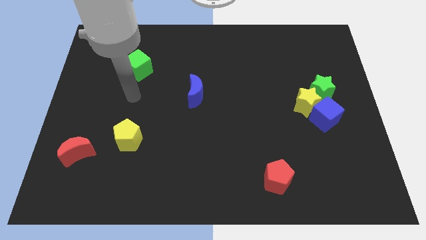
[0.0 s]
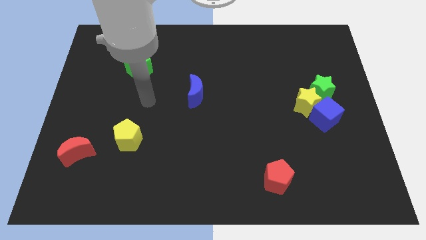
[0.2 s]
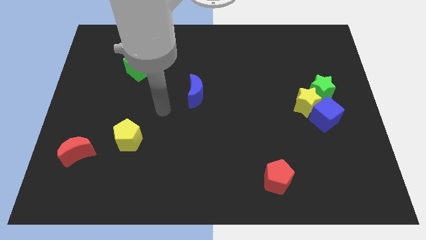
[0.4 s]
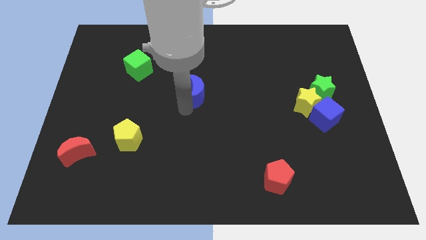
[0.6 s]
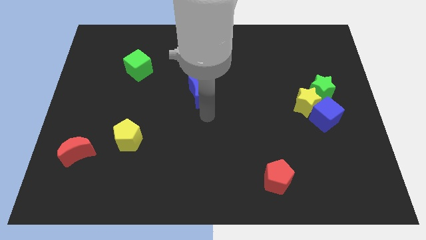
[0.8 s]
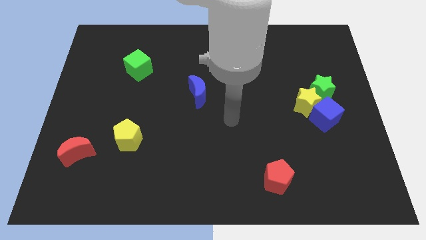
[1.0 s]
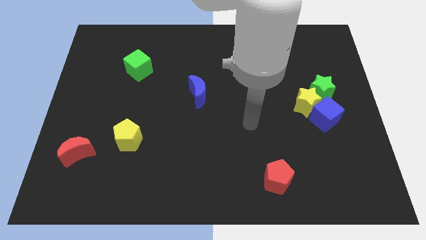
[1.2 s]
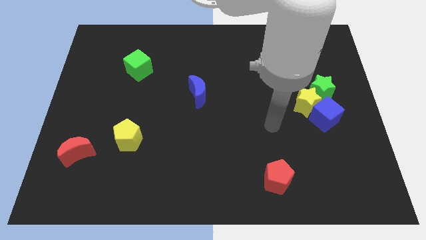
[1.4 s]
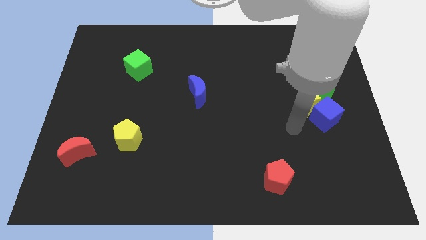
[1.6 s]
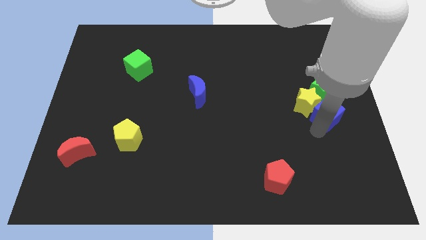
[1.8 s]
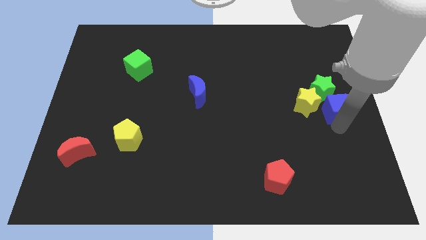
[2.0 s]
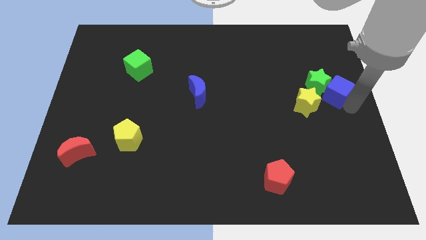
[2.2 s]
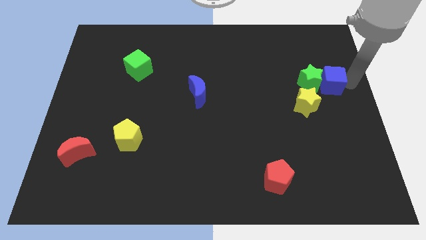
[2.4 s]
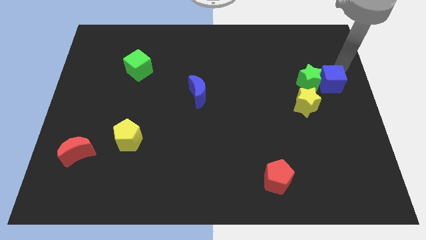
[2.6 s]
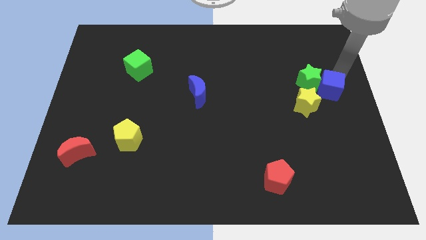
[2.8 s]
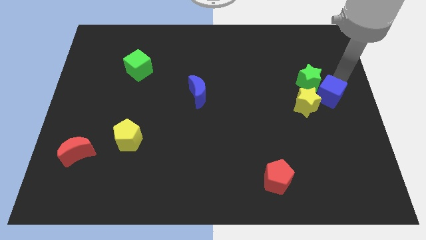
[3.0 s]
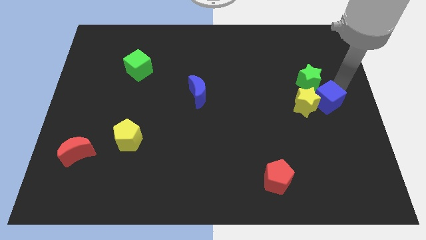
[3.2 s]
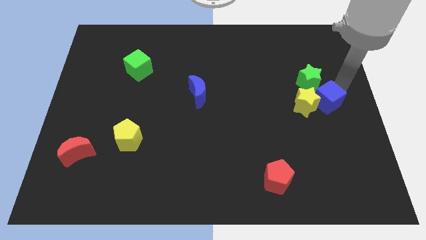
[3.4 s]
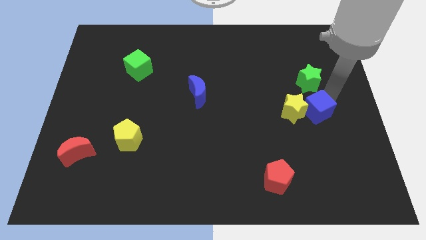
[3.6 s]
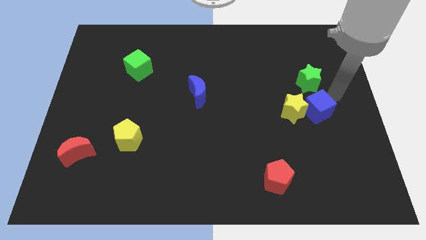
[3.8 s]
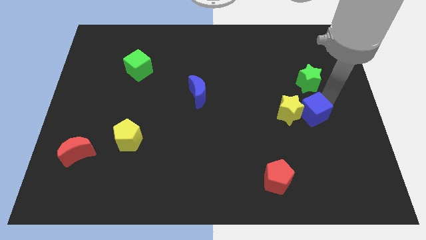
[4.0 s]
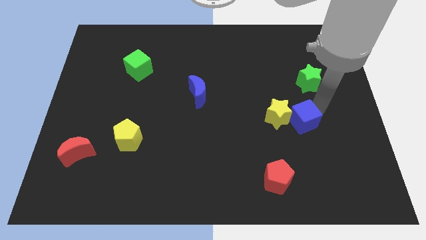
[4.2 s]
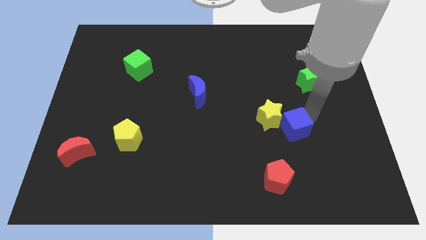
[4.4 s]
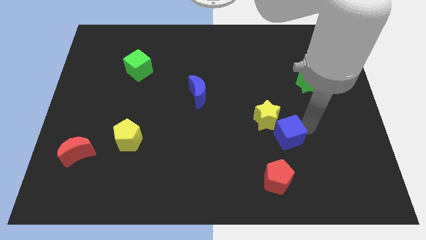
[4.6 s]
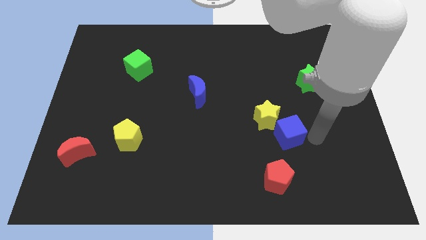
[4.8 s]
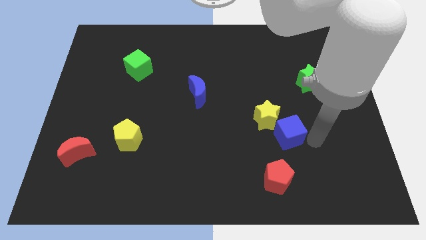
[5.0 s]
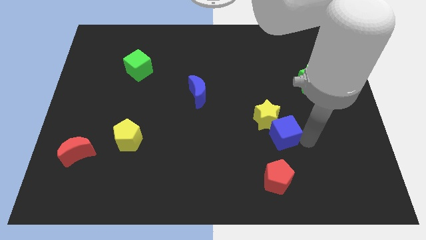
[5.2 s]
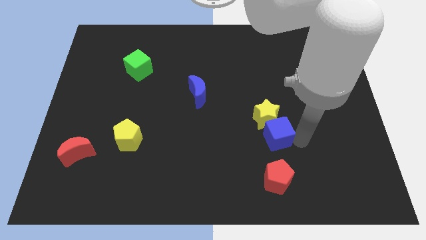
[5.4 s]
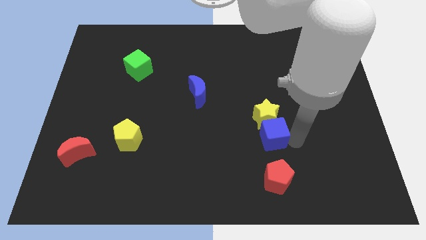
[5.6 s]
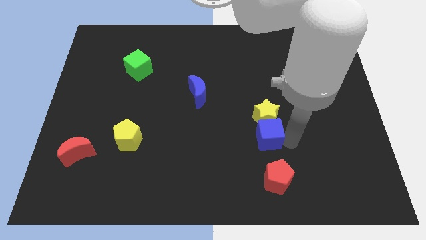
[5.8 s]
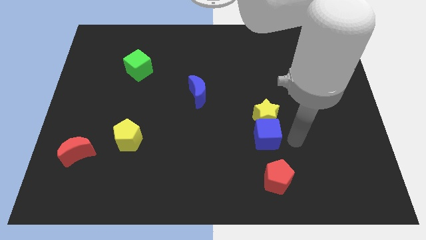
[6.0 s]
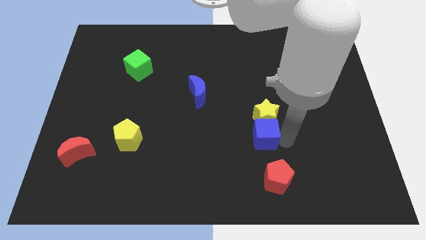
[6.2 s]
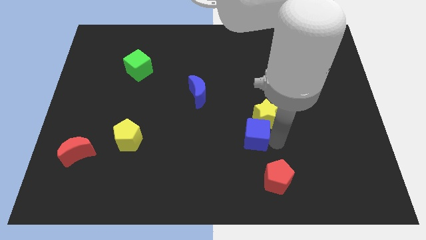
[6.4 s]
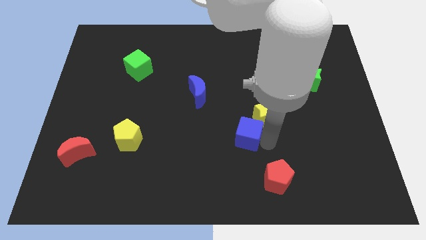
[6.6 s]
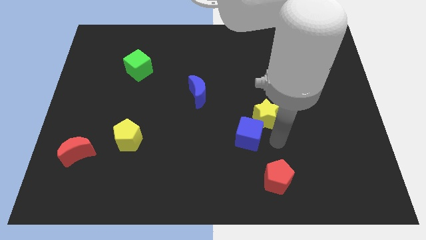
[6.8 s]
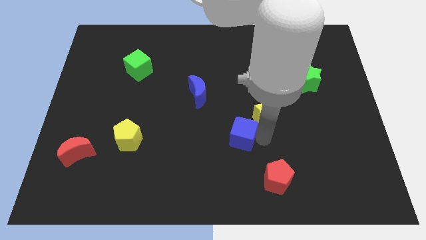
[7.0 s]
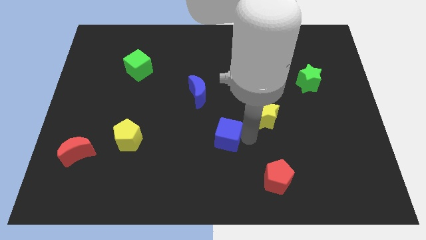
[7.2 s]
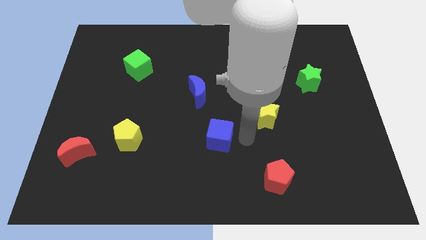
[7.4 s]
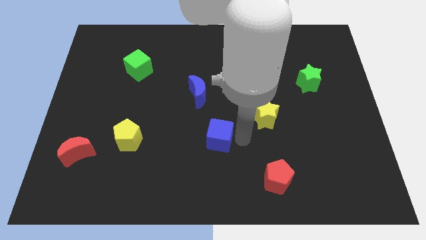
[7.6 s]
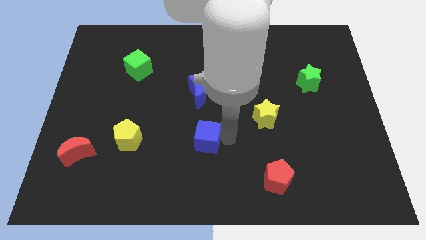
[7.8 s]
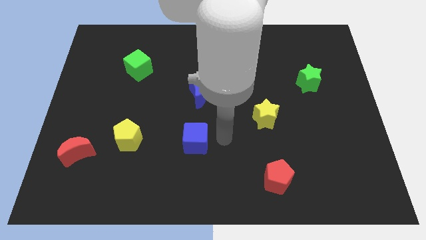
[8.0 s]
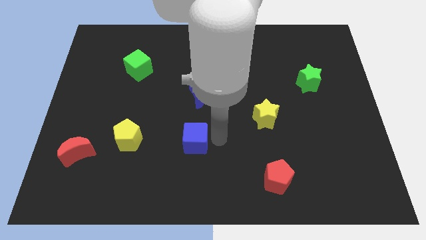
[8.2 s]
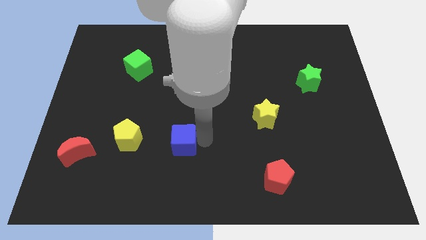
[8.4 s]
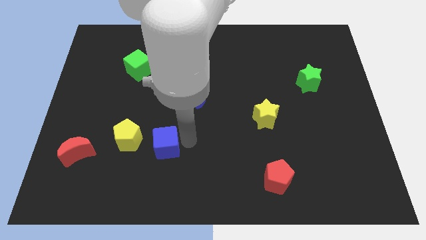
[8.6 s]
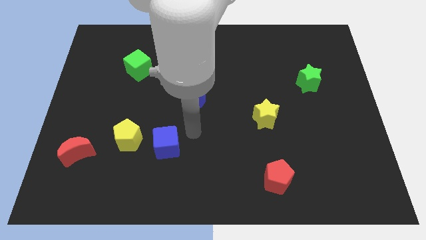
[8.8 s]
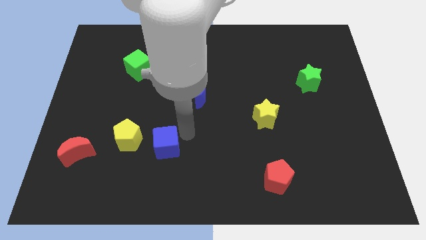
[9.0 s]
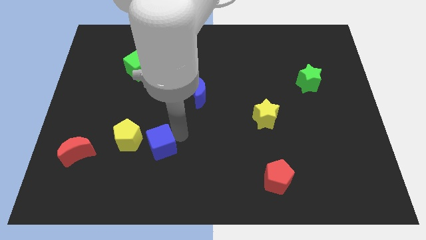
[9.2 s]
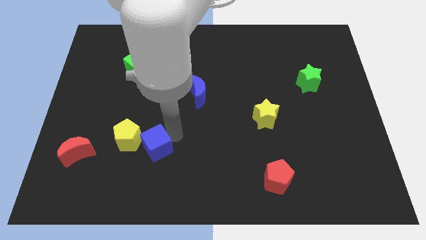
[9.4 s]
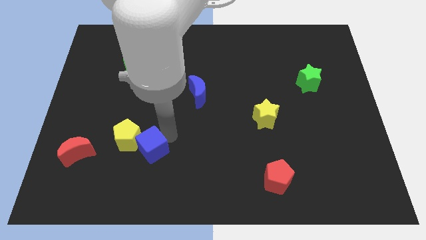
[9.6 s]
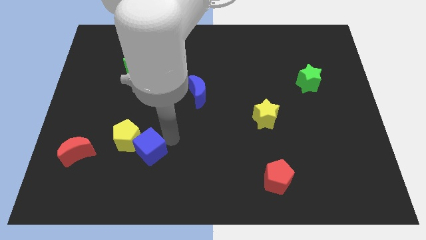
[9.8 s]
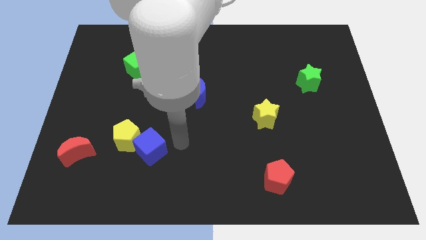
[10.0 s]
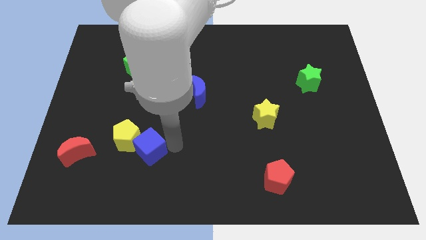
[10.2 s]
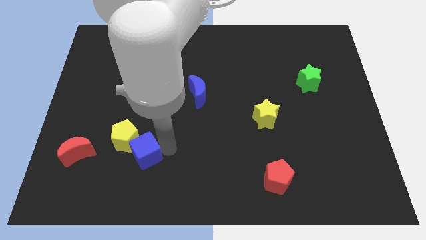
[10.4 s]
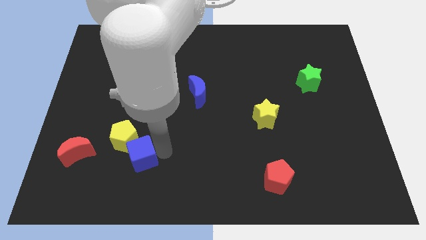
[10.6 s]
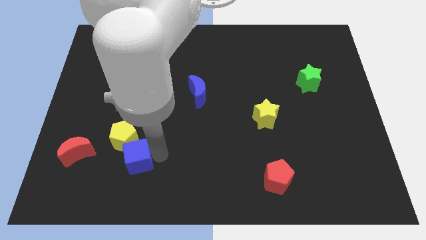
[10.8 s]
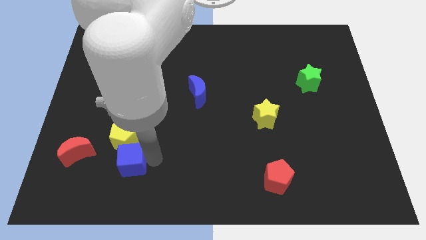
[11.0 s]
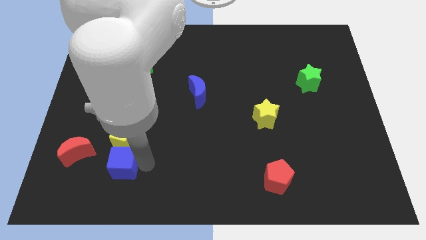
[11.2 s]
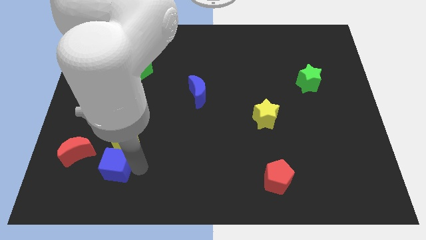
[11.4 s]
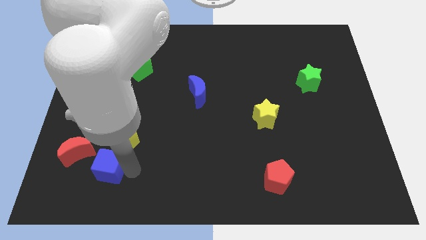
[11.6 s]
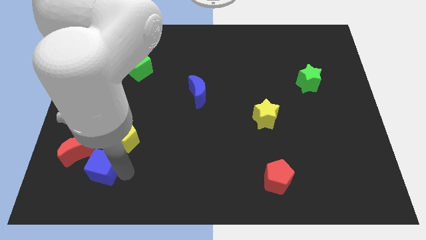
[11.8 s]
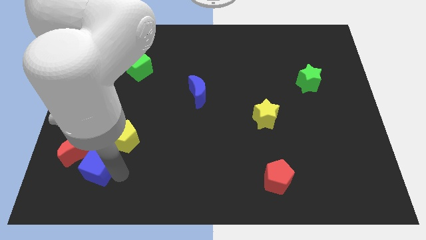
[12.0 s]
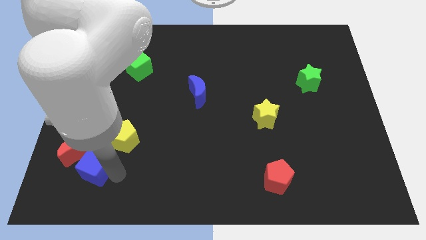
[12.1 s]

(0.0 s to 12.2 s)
push the blue cube next to the red moon

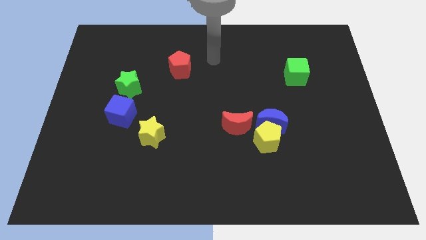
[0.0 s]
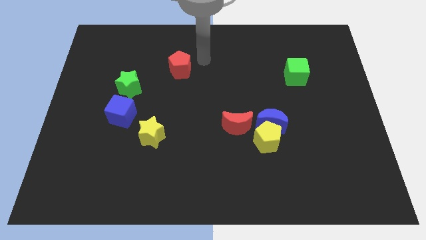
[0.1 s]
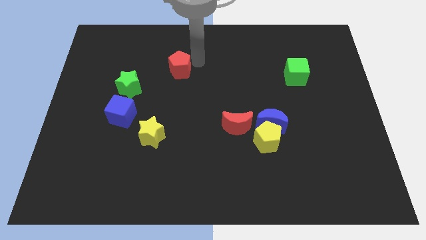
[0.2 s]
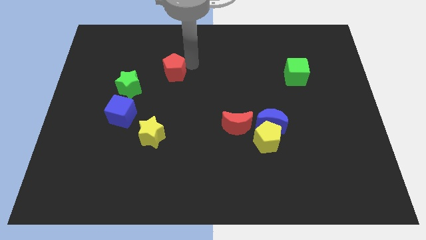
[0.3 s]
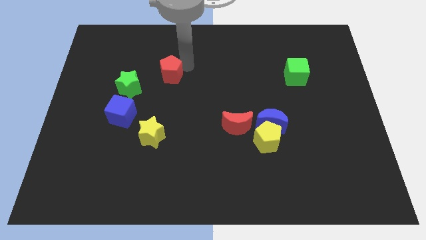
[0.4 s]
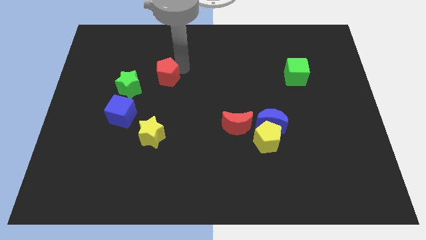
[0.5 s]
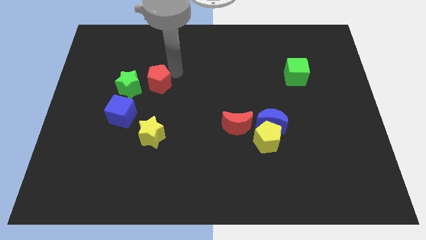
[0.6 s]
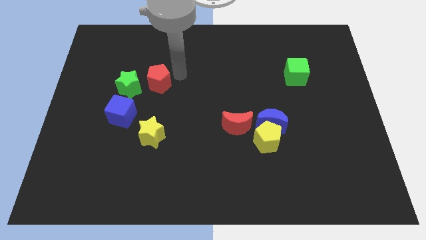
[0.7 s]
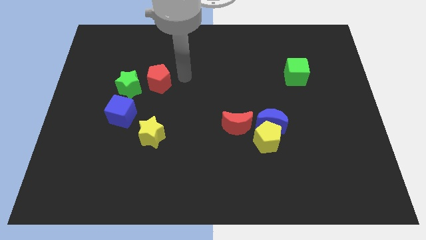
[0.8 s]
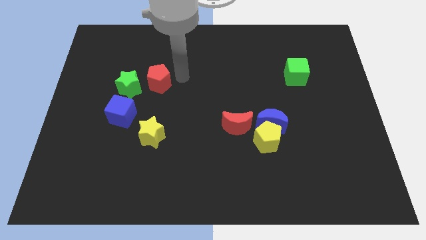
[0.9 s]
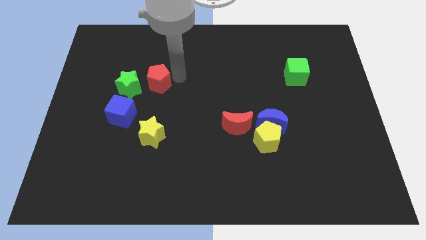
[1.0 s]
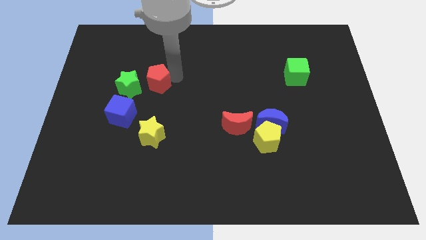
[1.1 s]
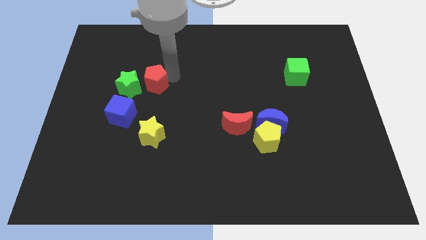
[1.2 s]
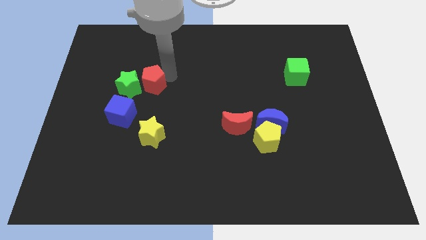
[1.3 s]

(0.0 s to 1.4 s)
put the red pentagon towards the green star
